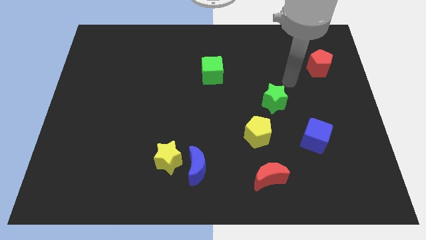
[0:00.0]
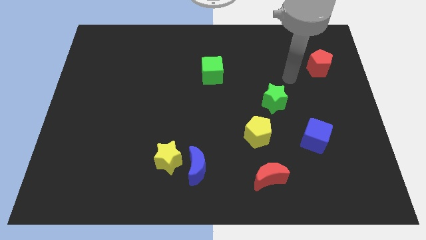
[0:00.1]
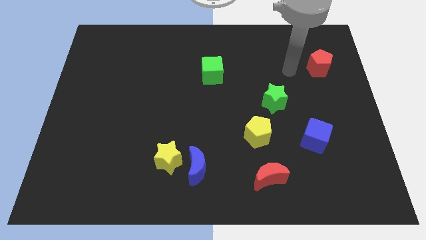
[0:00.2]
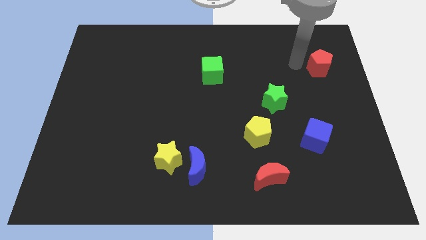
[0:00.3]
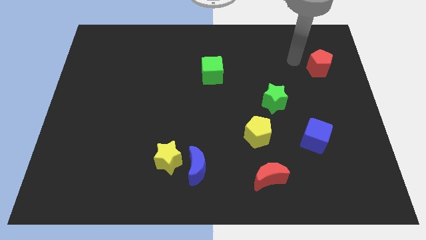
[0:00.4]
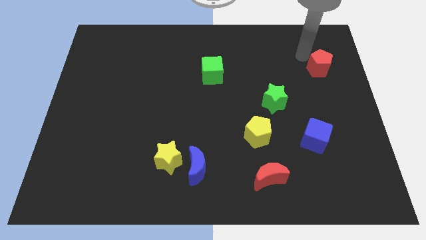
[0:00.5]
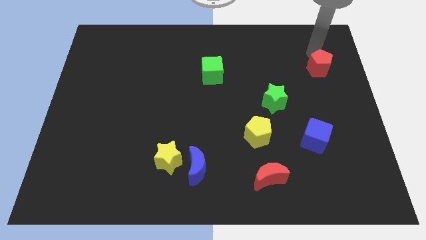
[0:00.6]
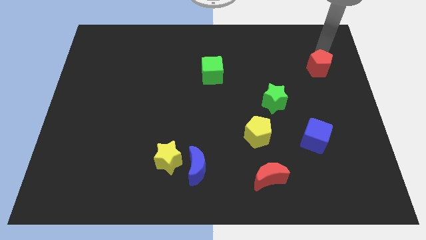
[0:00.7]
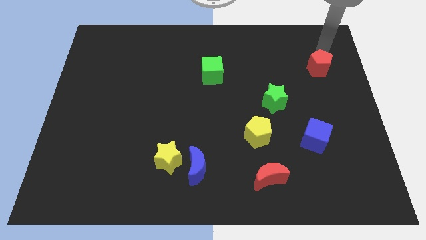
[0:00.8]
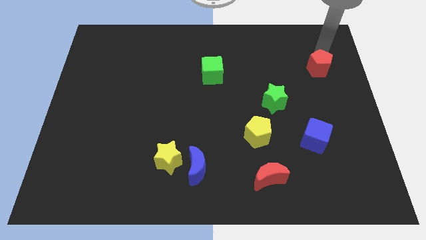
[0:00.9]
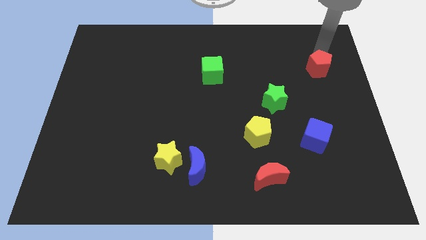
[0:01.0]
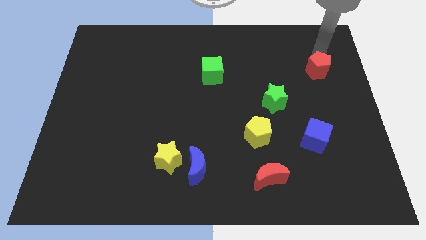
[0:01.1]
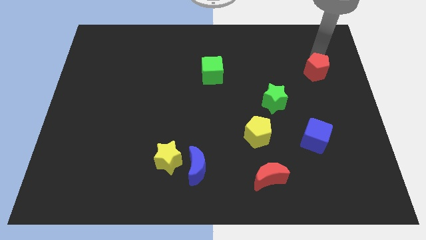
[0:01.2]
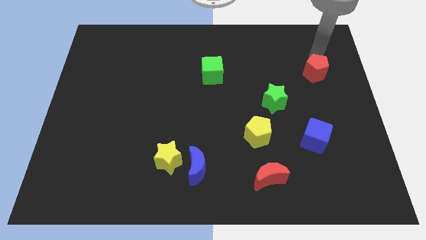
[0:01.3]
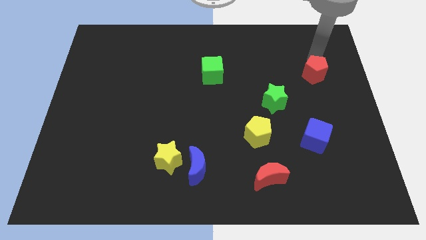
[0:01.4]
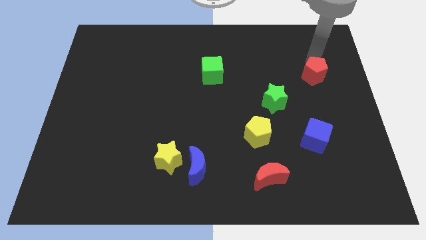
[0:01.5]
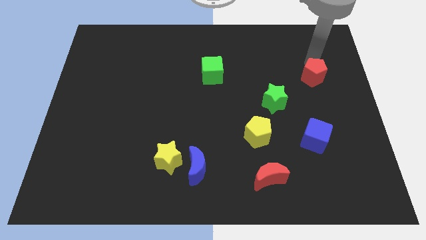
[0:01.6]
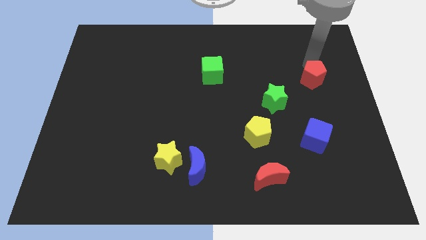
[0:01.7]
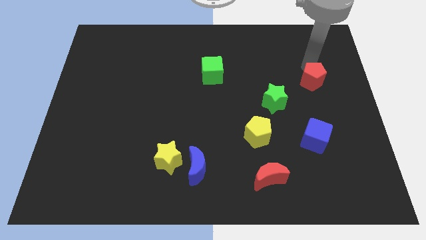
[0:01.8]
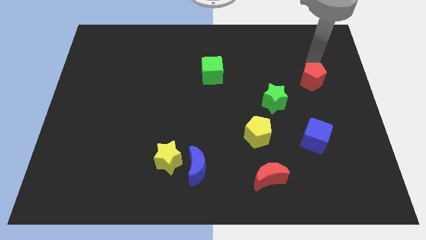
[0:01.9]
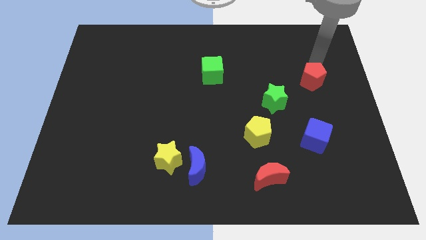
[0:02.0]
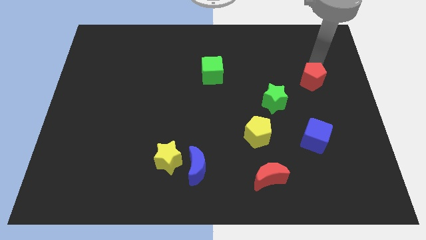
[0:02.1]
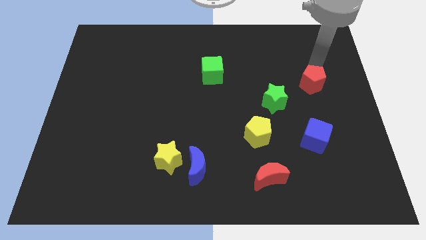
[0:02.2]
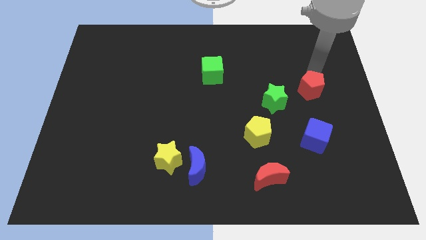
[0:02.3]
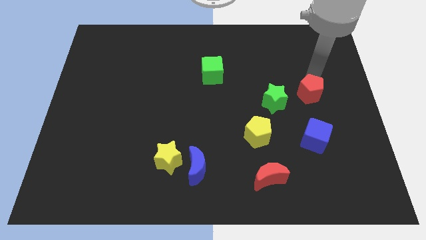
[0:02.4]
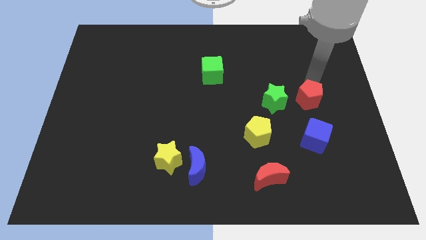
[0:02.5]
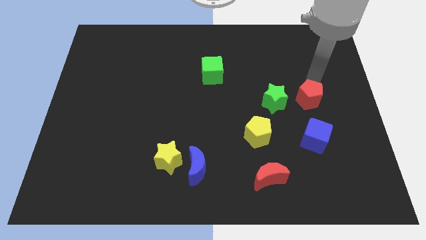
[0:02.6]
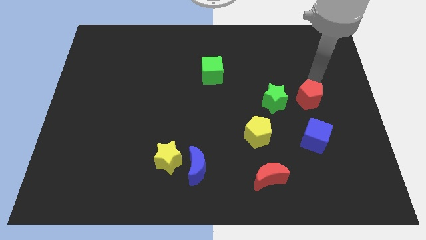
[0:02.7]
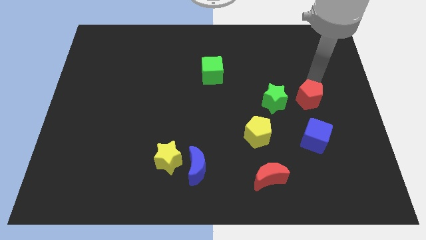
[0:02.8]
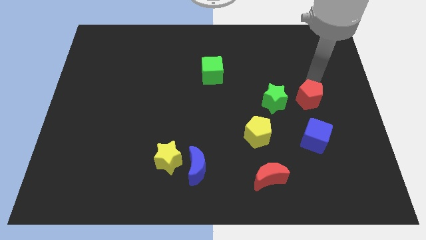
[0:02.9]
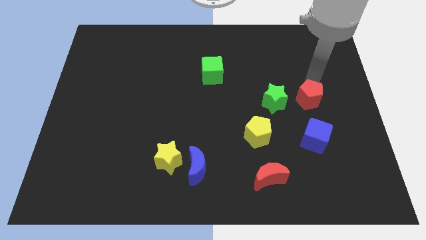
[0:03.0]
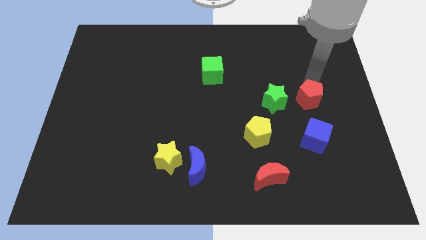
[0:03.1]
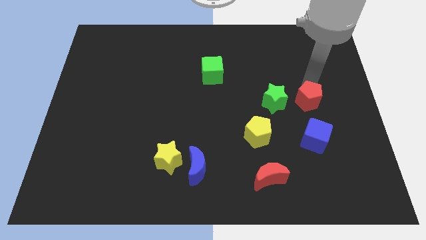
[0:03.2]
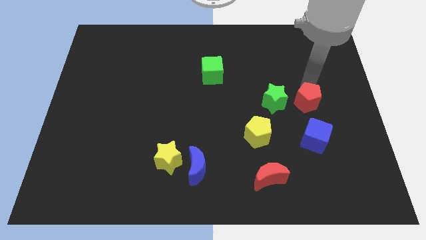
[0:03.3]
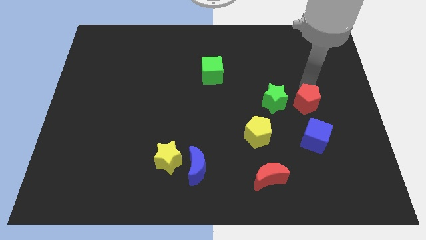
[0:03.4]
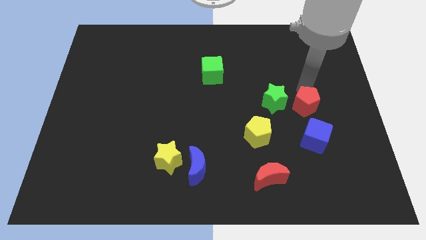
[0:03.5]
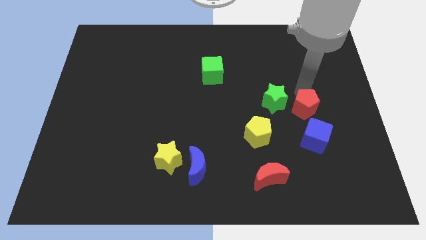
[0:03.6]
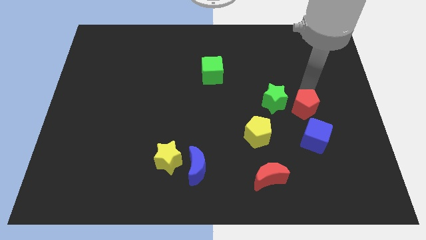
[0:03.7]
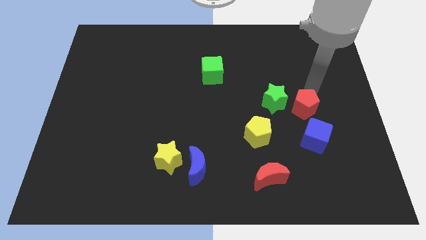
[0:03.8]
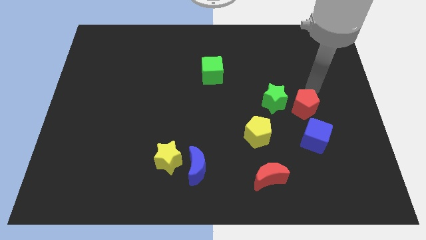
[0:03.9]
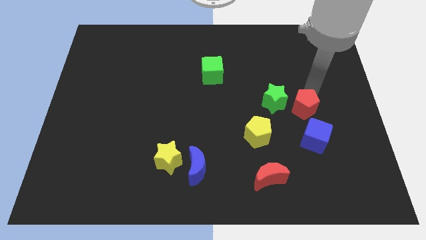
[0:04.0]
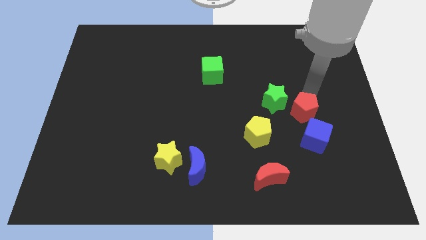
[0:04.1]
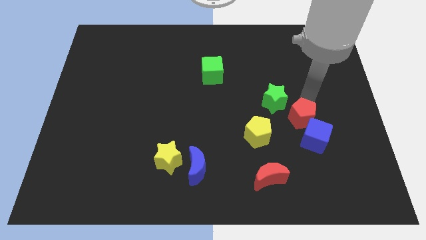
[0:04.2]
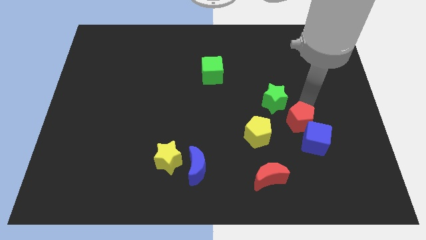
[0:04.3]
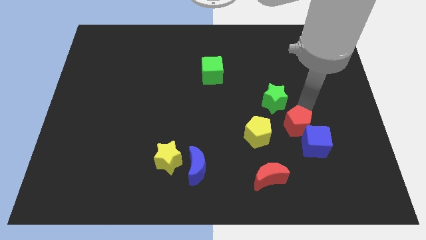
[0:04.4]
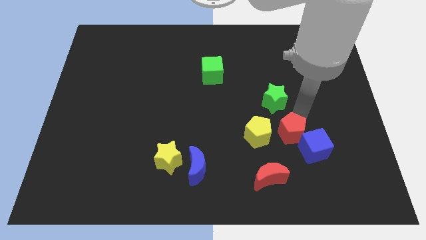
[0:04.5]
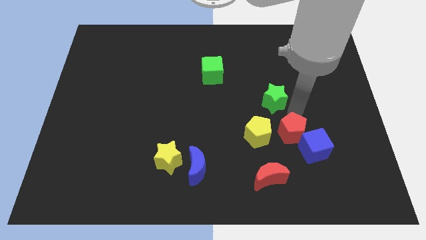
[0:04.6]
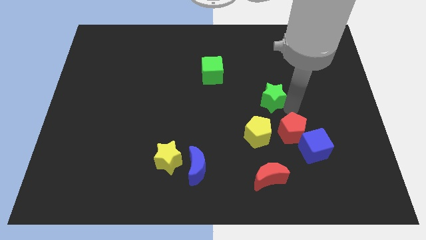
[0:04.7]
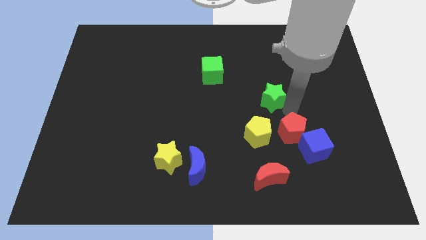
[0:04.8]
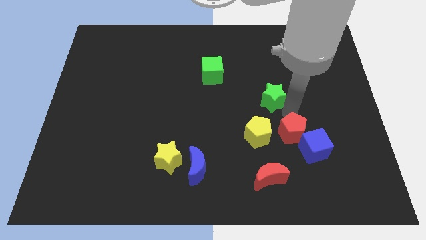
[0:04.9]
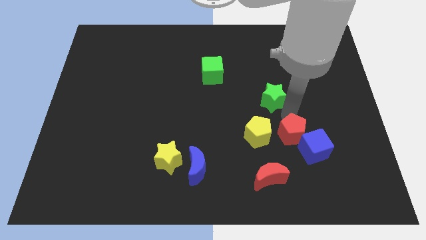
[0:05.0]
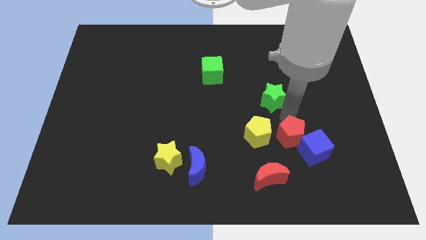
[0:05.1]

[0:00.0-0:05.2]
slide the red pentagon diagonally up and to the right of the red moon

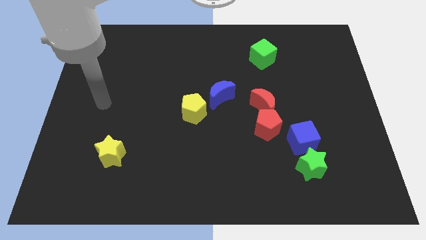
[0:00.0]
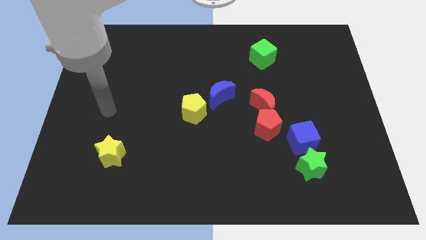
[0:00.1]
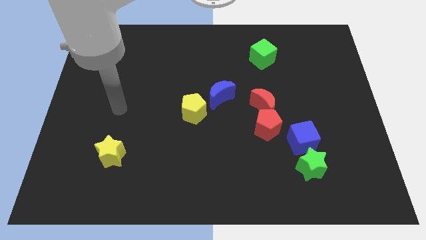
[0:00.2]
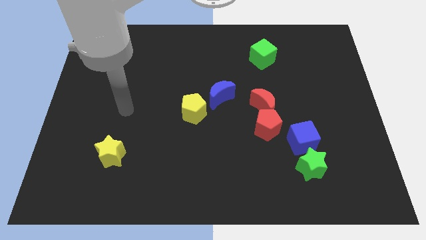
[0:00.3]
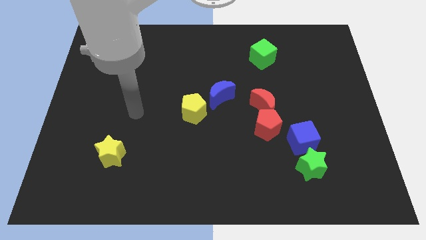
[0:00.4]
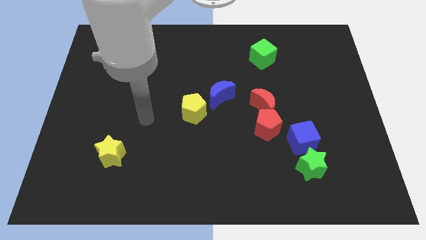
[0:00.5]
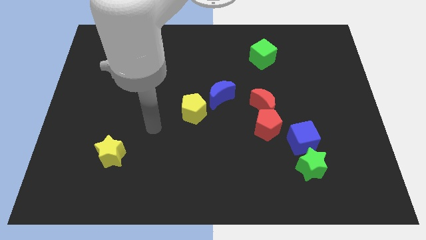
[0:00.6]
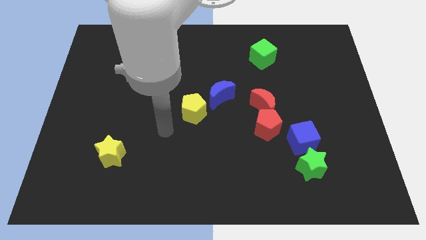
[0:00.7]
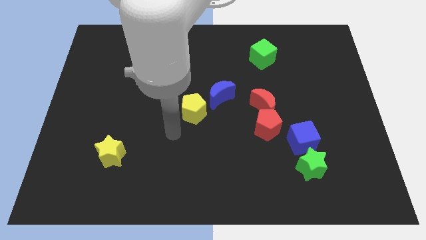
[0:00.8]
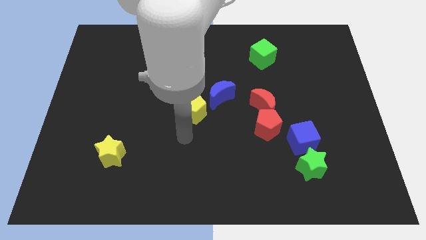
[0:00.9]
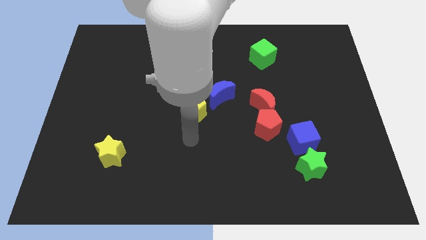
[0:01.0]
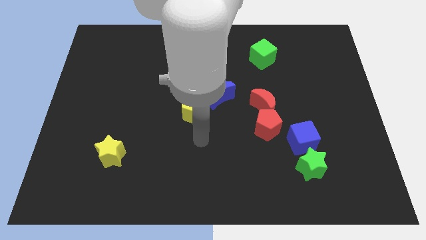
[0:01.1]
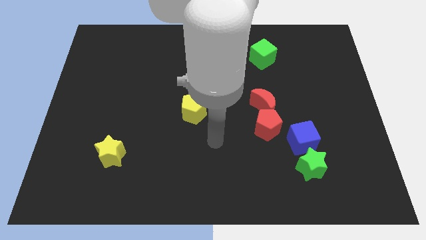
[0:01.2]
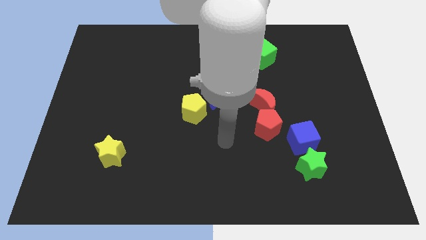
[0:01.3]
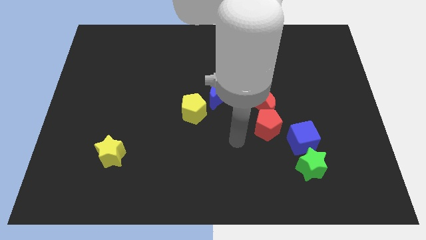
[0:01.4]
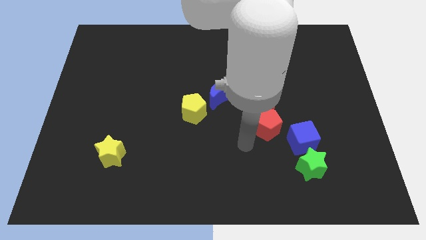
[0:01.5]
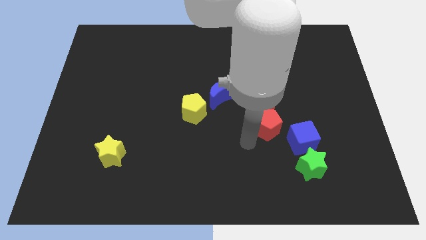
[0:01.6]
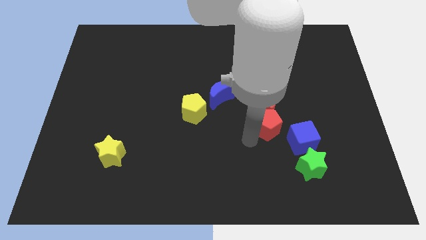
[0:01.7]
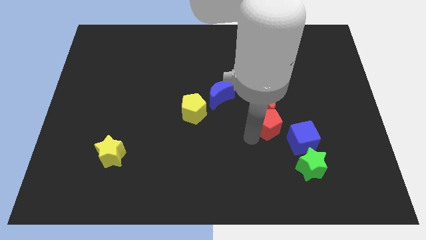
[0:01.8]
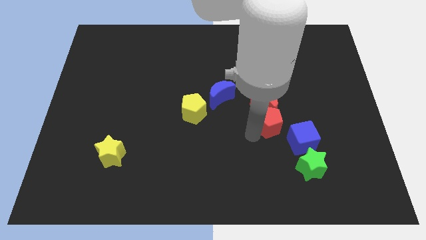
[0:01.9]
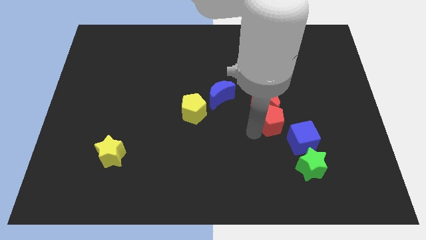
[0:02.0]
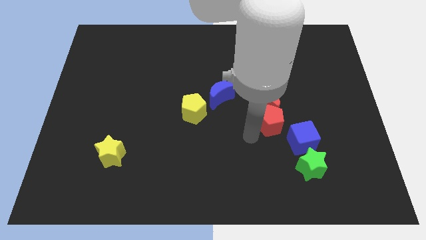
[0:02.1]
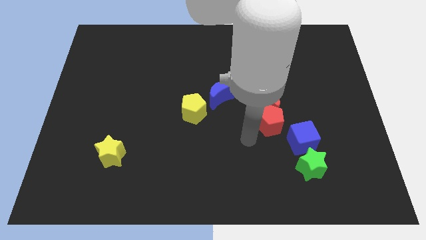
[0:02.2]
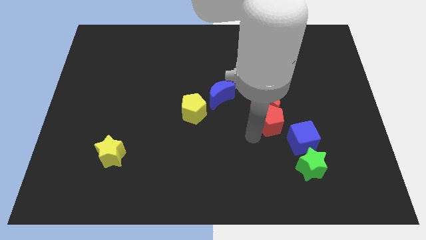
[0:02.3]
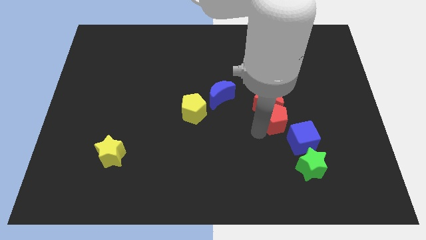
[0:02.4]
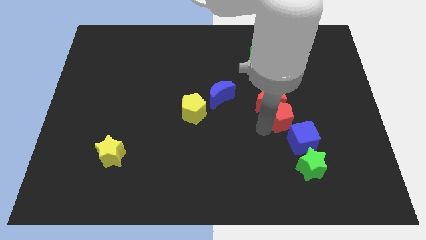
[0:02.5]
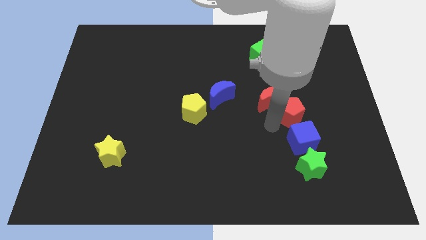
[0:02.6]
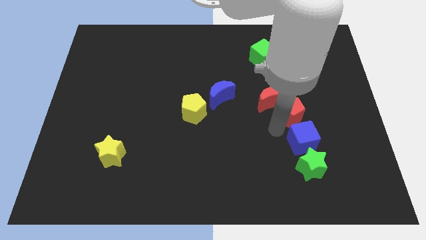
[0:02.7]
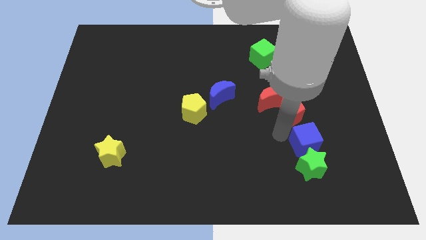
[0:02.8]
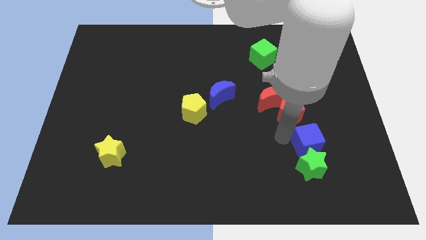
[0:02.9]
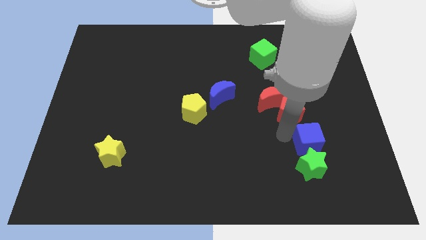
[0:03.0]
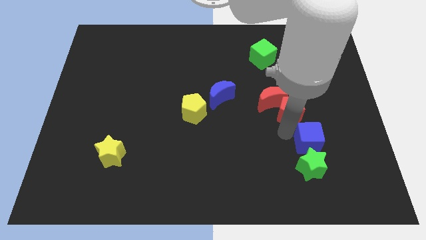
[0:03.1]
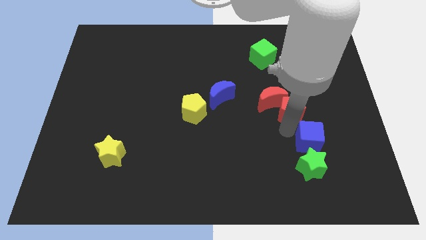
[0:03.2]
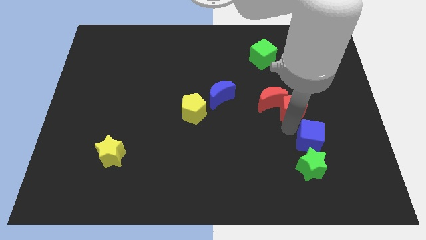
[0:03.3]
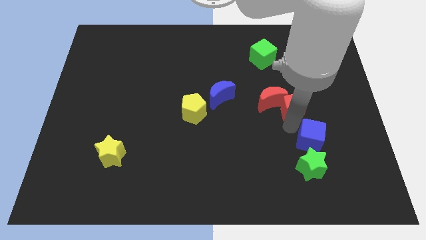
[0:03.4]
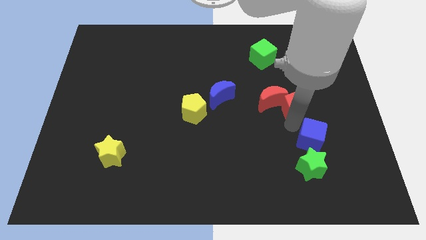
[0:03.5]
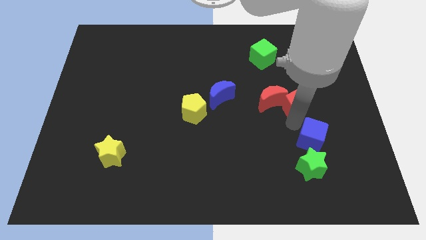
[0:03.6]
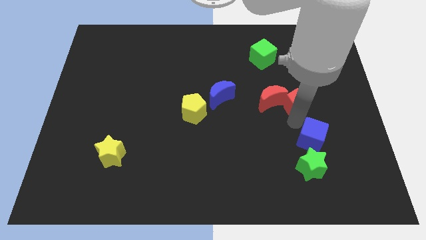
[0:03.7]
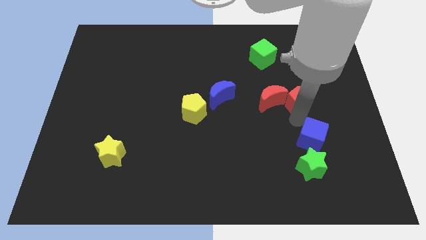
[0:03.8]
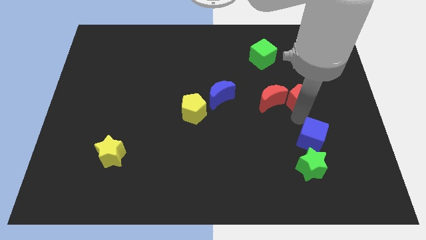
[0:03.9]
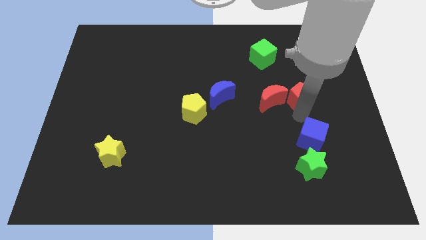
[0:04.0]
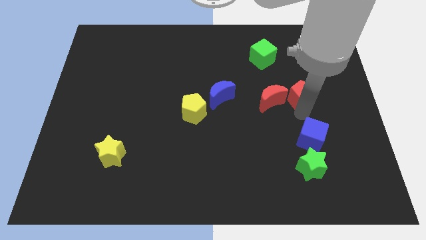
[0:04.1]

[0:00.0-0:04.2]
push the red pentagon diagonally up and to the right of the red moon
